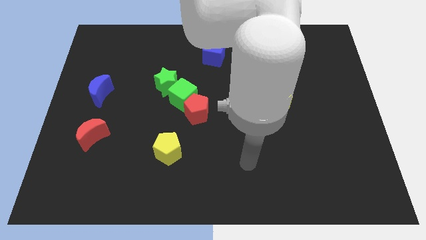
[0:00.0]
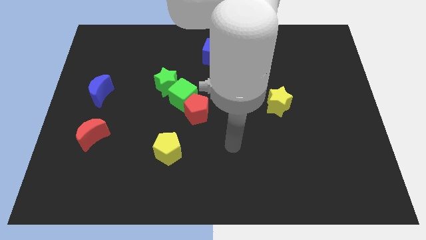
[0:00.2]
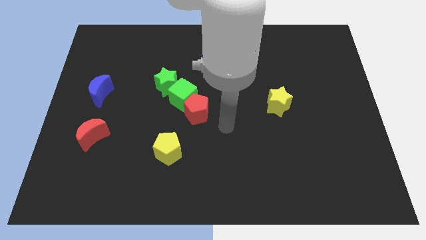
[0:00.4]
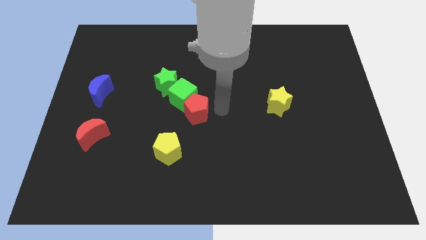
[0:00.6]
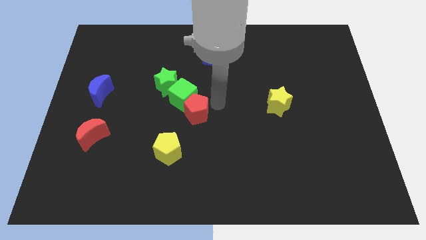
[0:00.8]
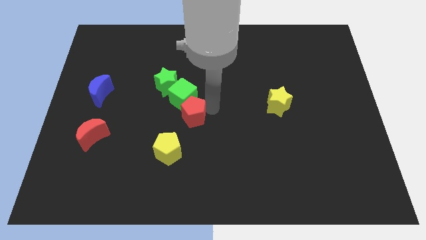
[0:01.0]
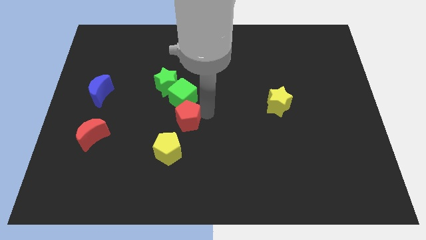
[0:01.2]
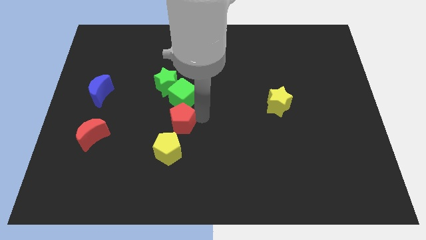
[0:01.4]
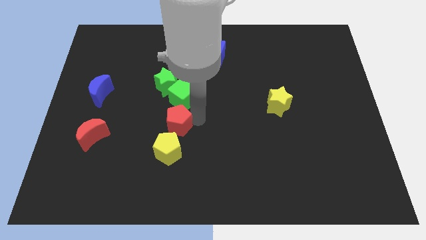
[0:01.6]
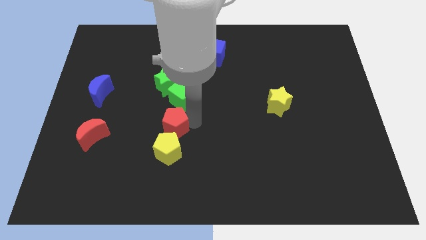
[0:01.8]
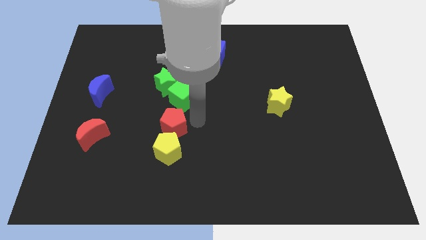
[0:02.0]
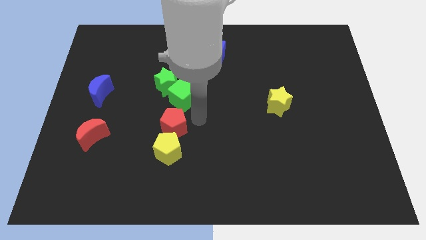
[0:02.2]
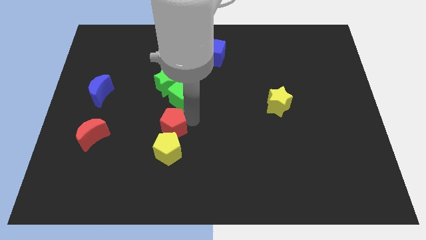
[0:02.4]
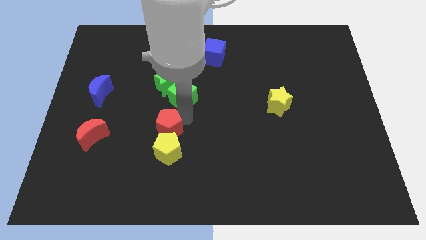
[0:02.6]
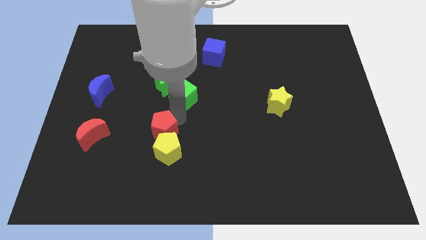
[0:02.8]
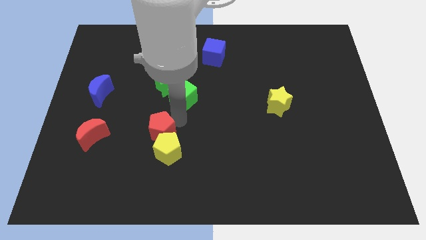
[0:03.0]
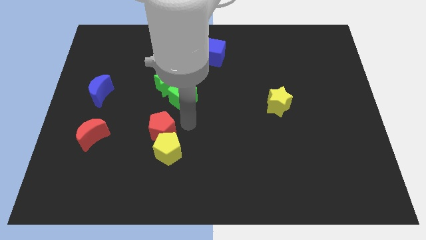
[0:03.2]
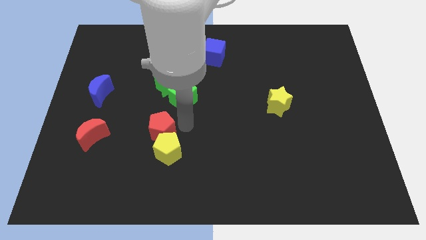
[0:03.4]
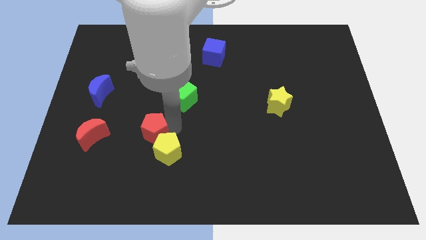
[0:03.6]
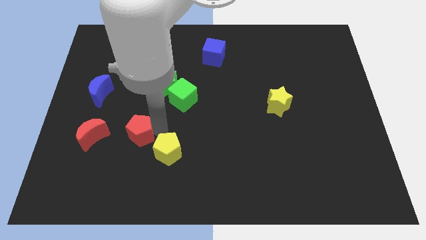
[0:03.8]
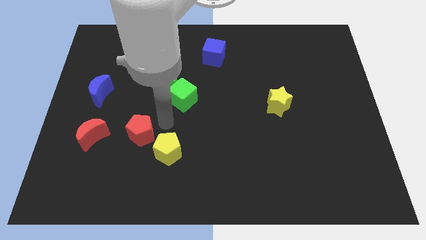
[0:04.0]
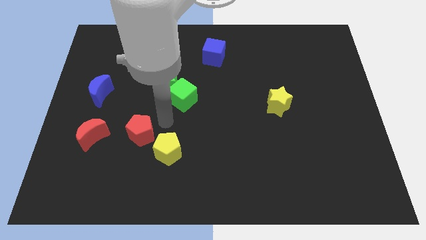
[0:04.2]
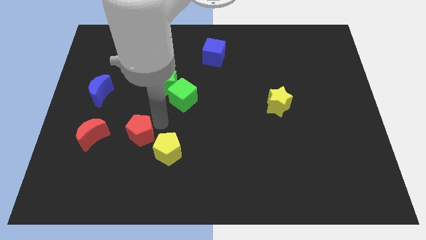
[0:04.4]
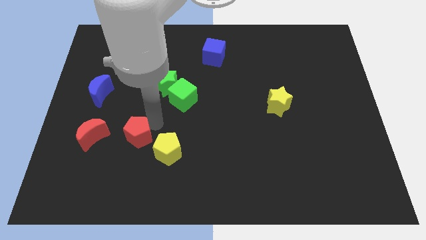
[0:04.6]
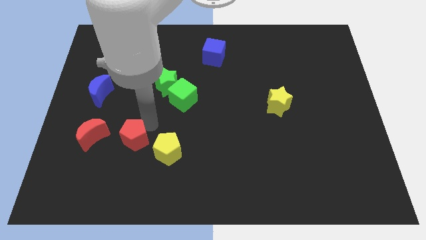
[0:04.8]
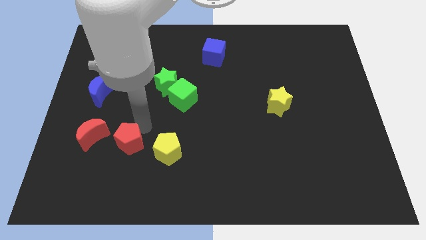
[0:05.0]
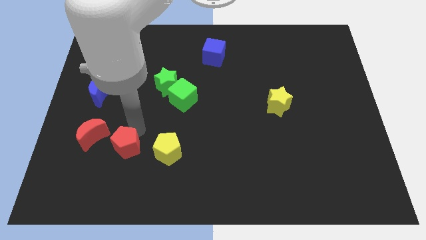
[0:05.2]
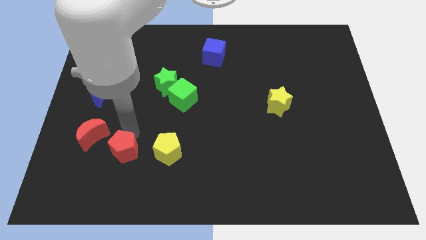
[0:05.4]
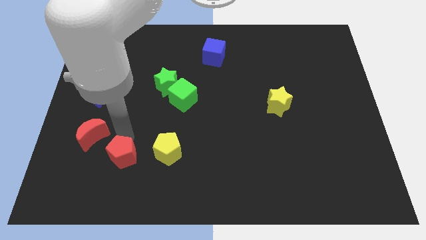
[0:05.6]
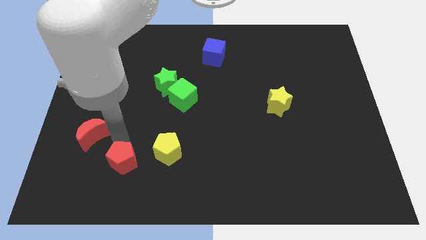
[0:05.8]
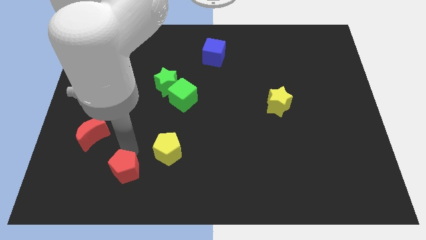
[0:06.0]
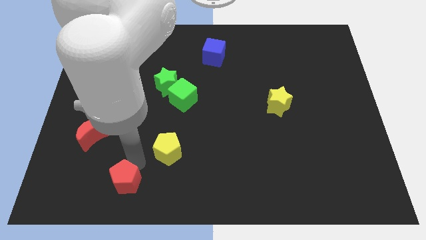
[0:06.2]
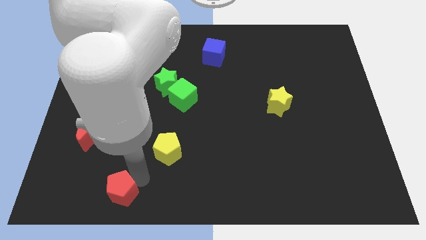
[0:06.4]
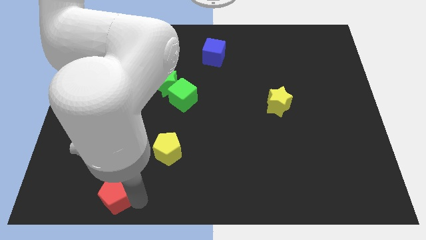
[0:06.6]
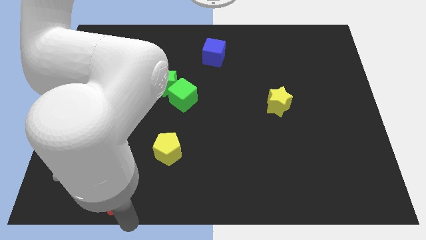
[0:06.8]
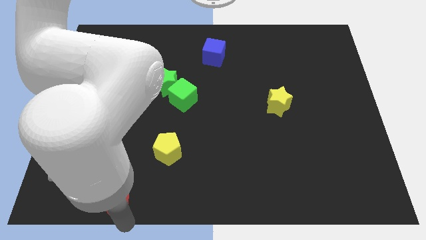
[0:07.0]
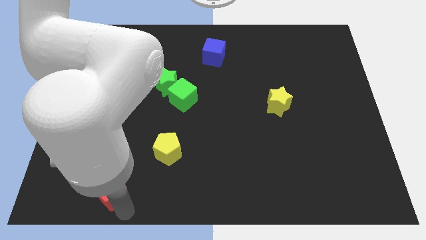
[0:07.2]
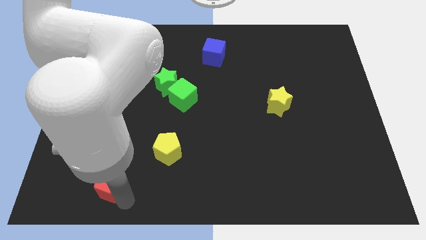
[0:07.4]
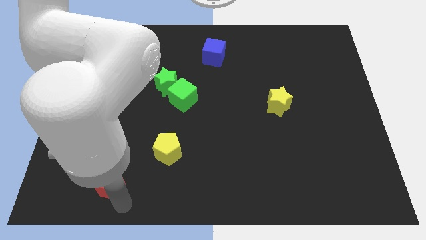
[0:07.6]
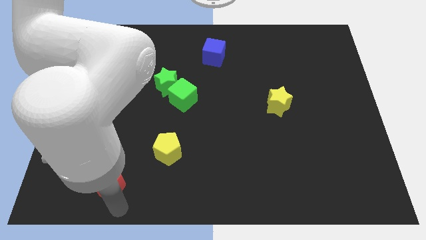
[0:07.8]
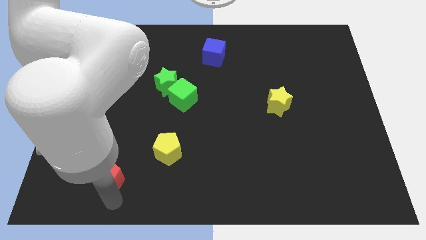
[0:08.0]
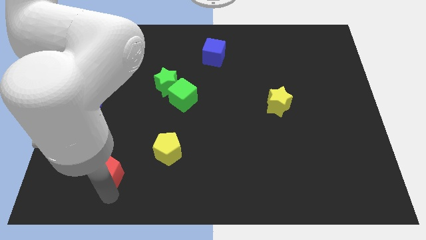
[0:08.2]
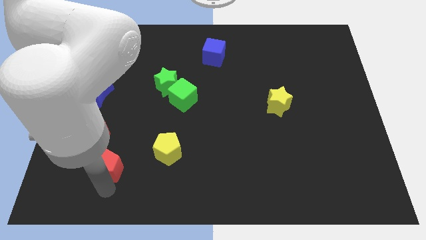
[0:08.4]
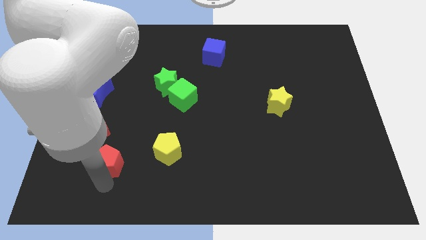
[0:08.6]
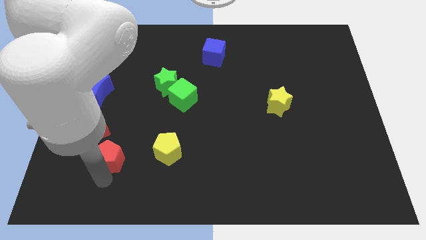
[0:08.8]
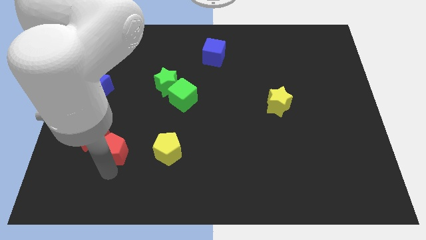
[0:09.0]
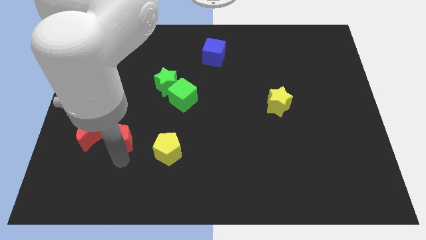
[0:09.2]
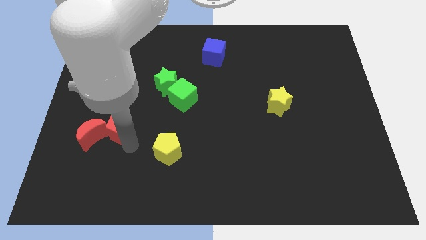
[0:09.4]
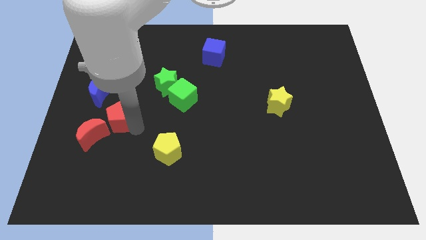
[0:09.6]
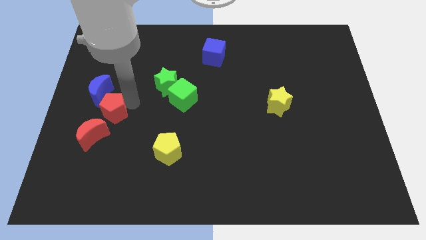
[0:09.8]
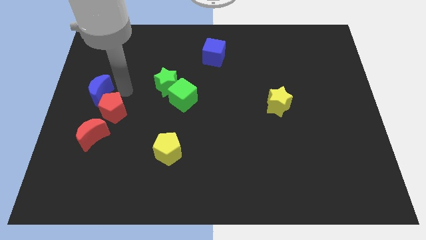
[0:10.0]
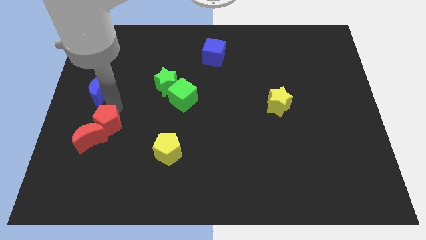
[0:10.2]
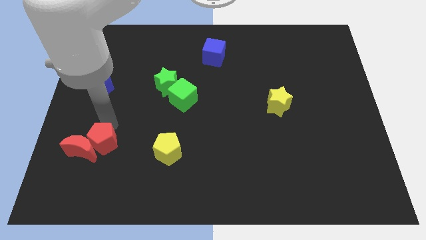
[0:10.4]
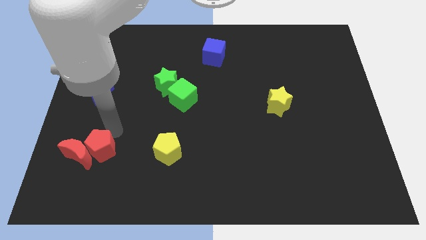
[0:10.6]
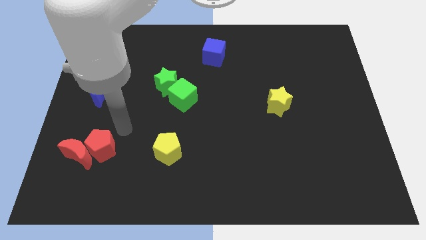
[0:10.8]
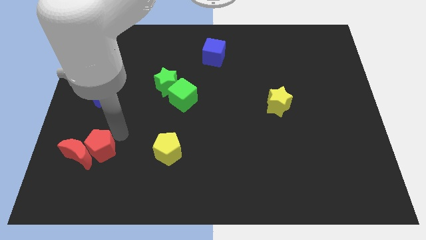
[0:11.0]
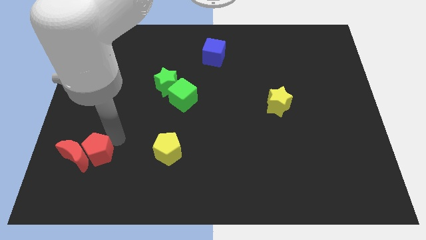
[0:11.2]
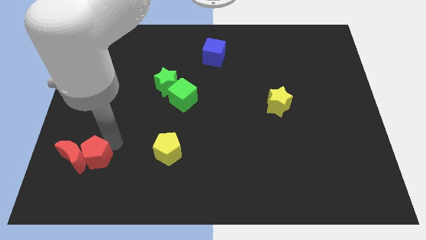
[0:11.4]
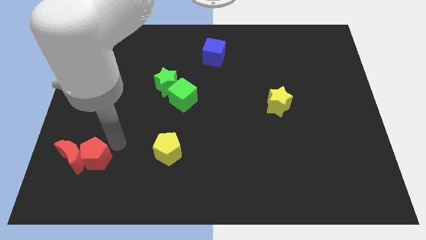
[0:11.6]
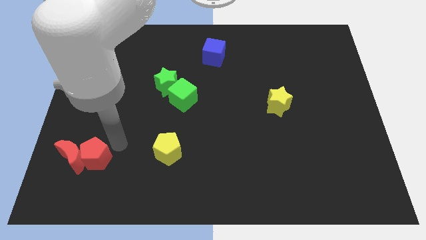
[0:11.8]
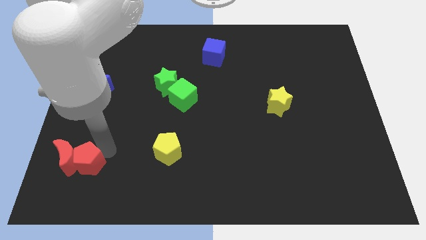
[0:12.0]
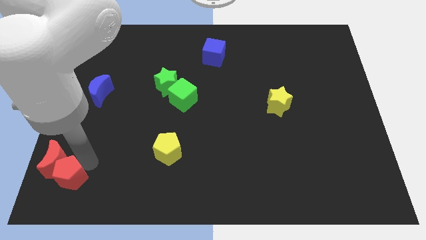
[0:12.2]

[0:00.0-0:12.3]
move the red pentagon to the bottom left corner
